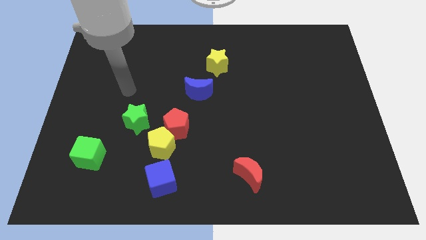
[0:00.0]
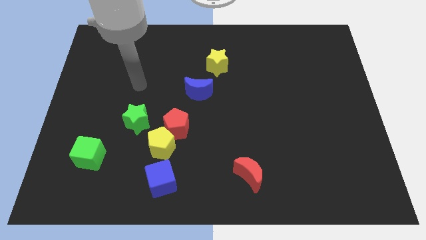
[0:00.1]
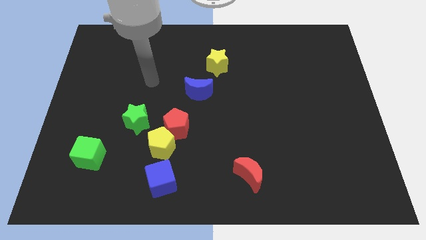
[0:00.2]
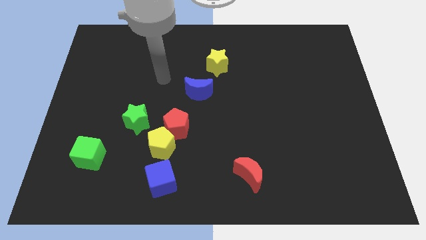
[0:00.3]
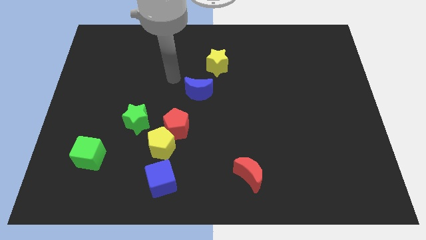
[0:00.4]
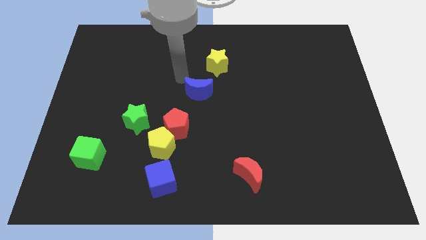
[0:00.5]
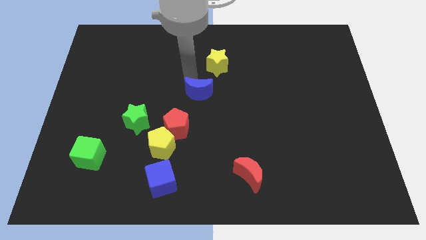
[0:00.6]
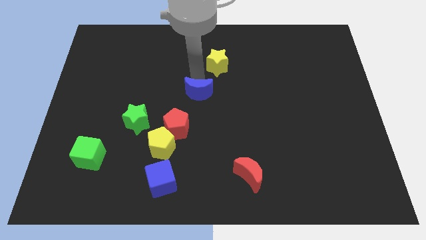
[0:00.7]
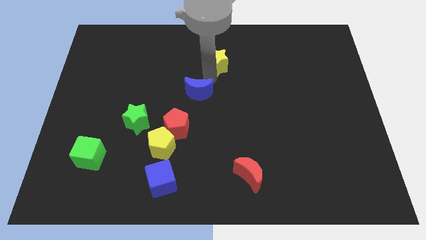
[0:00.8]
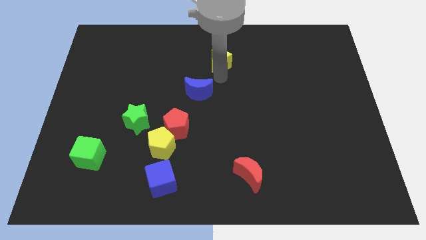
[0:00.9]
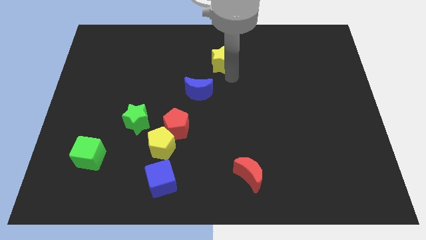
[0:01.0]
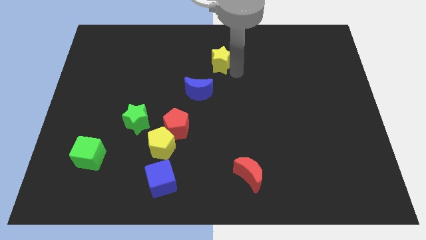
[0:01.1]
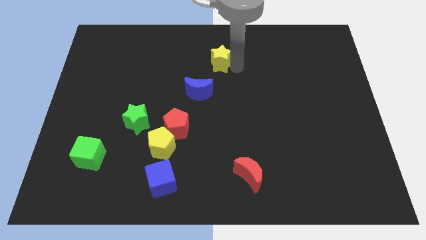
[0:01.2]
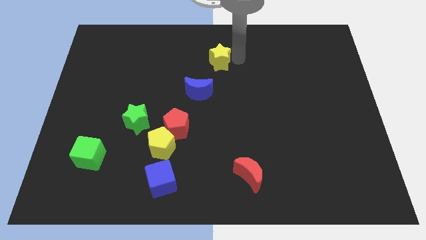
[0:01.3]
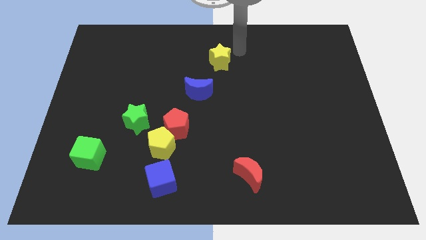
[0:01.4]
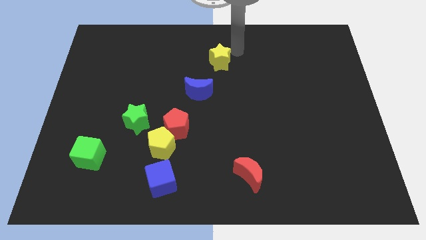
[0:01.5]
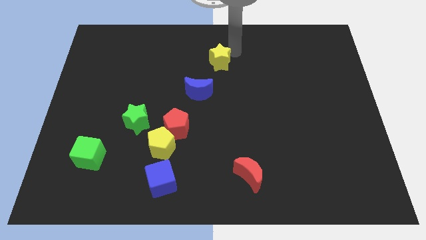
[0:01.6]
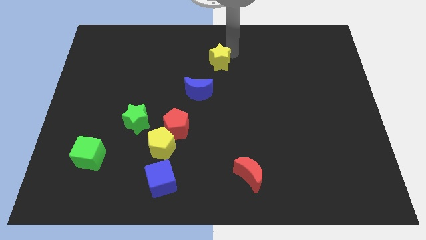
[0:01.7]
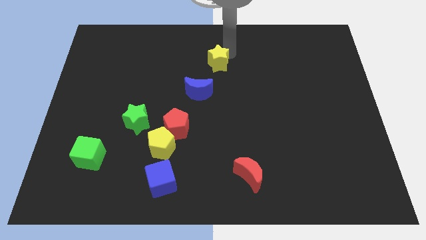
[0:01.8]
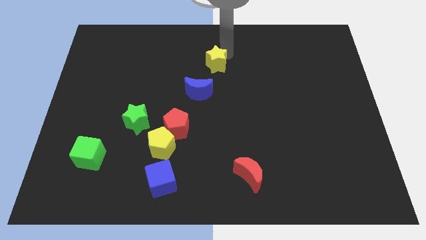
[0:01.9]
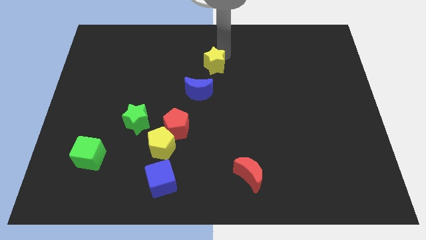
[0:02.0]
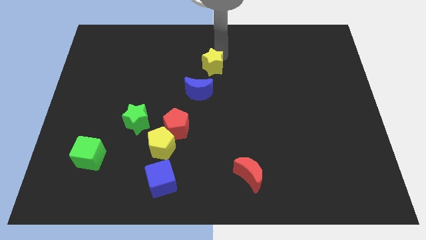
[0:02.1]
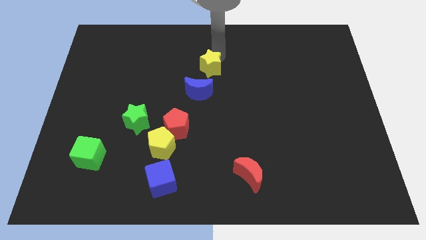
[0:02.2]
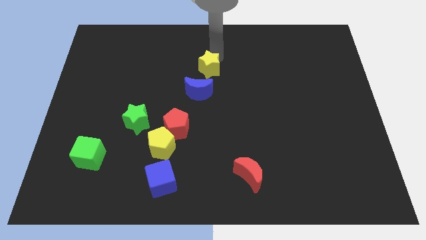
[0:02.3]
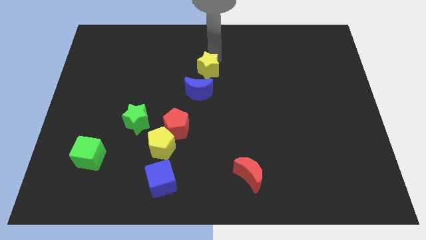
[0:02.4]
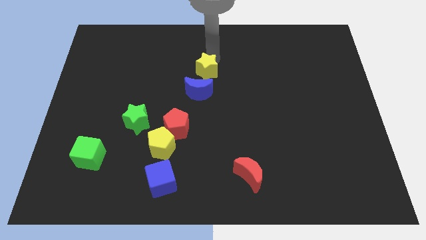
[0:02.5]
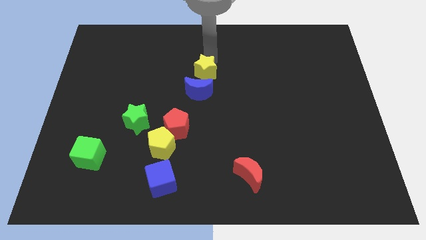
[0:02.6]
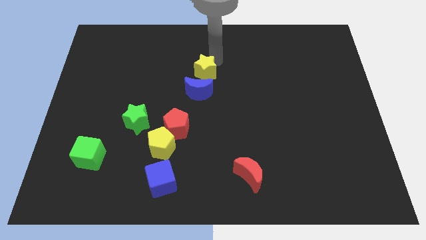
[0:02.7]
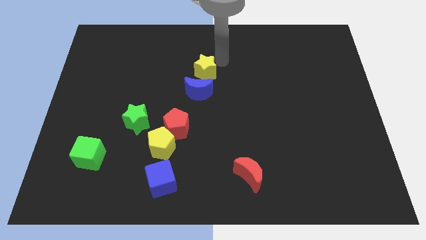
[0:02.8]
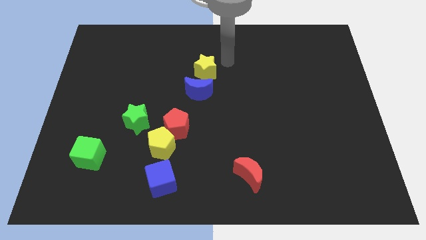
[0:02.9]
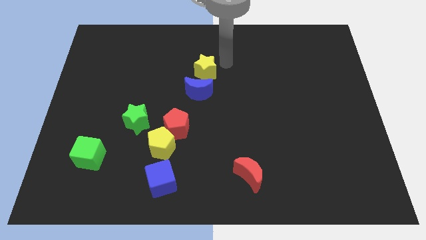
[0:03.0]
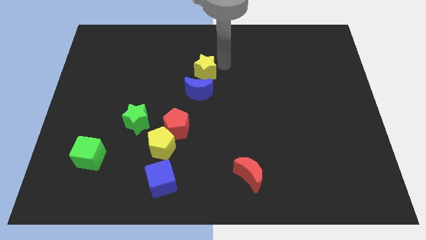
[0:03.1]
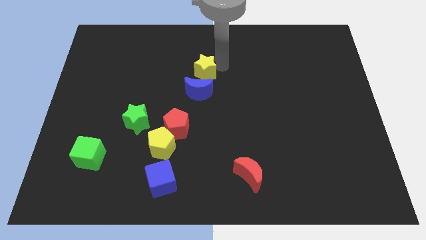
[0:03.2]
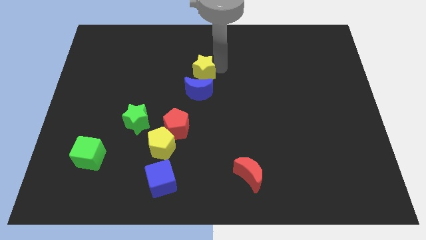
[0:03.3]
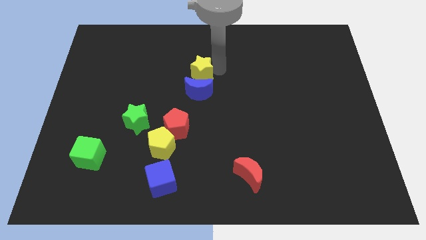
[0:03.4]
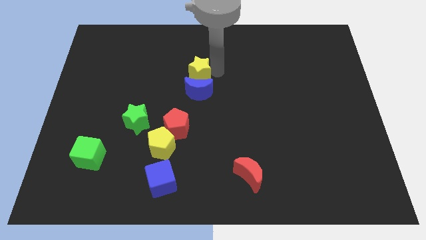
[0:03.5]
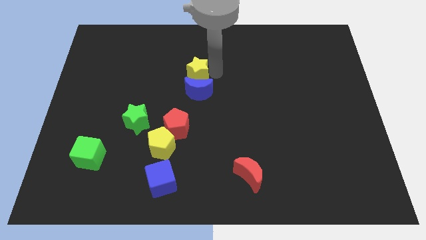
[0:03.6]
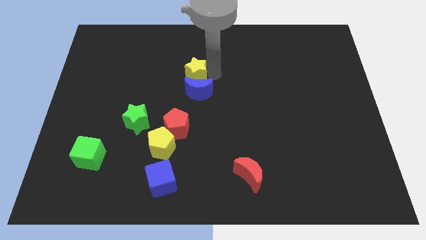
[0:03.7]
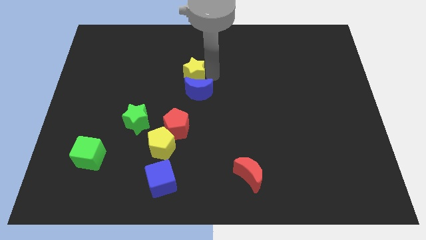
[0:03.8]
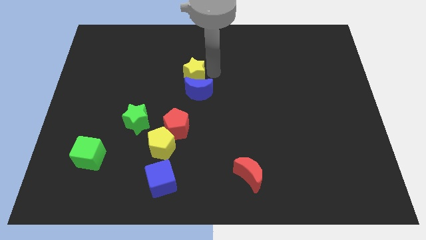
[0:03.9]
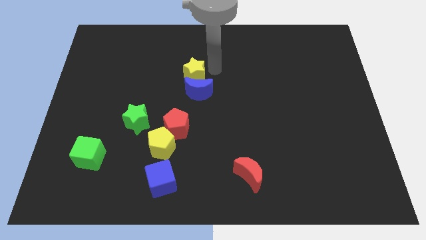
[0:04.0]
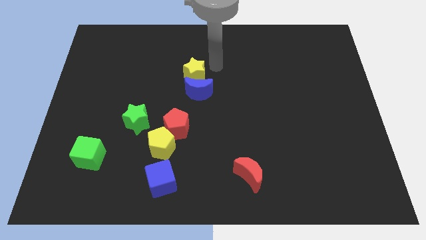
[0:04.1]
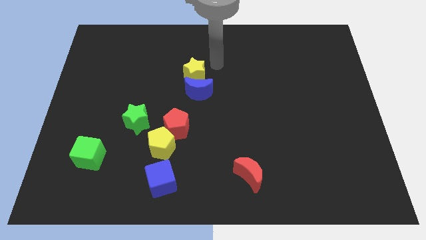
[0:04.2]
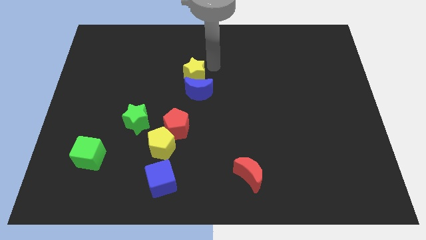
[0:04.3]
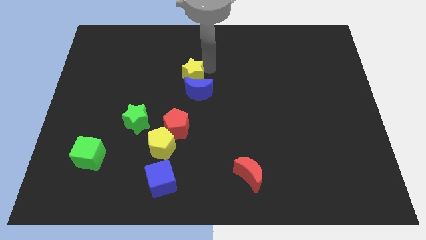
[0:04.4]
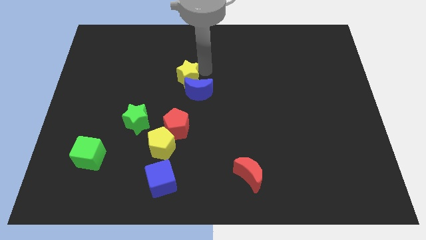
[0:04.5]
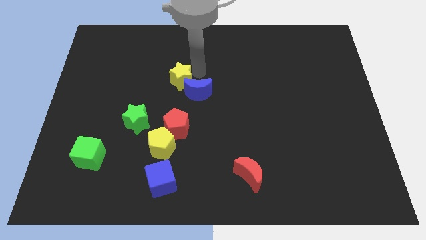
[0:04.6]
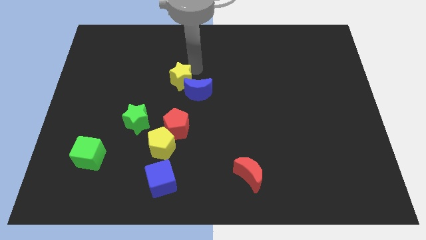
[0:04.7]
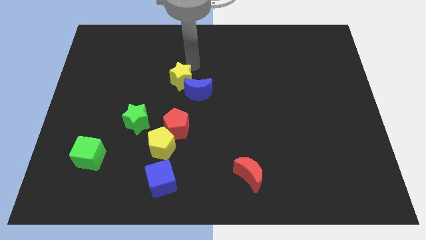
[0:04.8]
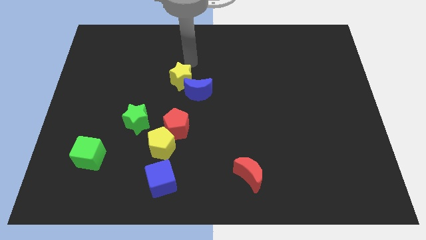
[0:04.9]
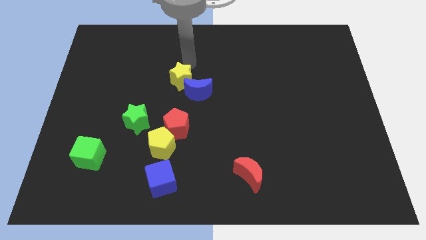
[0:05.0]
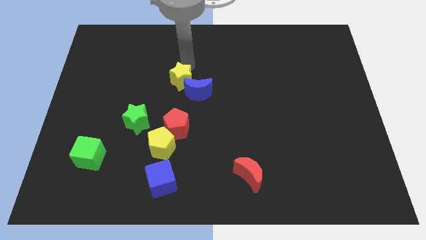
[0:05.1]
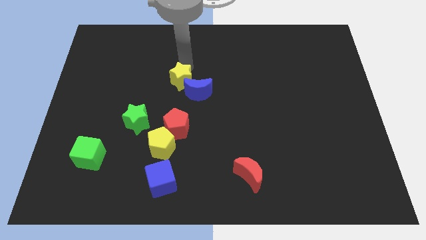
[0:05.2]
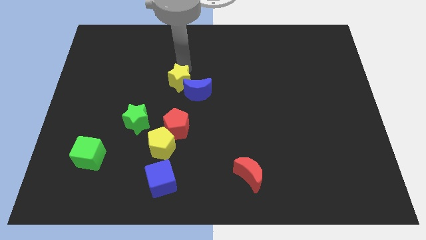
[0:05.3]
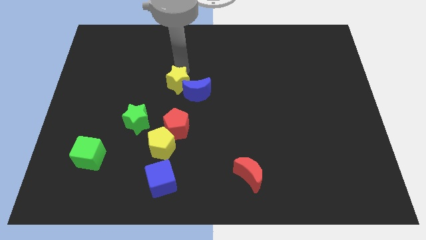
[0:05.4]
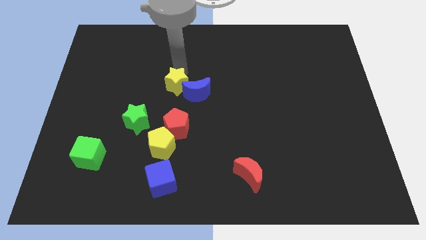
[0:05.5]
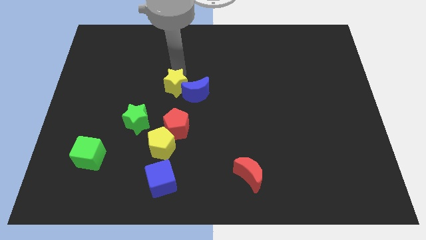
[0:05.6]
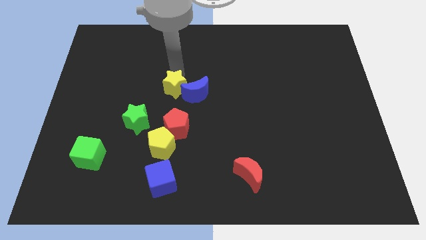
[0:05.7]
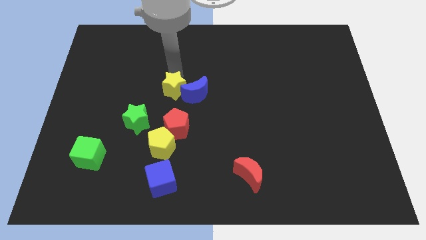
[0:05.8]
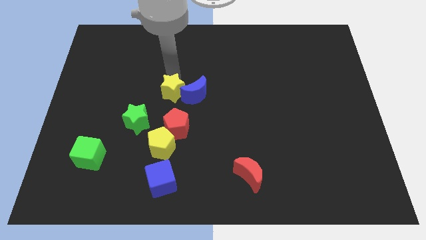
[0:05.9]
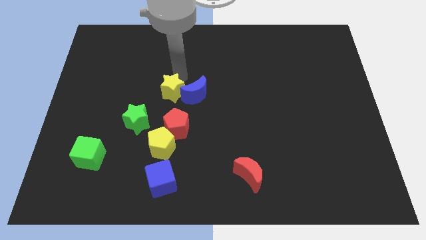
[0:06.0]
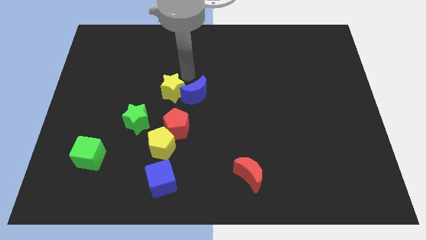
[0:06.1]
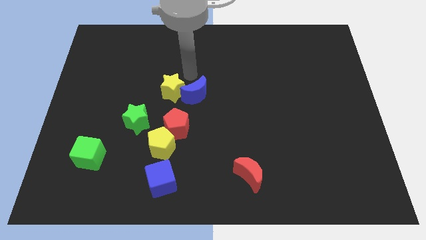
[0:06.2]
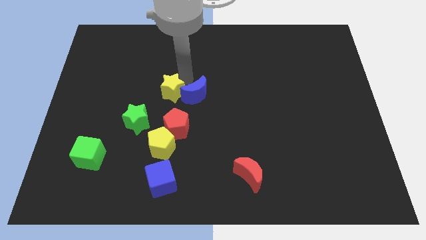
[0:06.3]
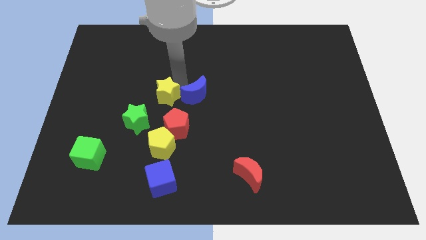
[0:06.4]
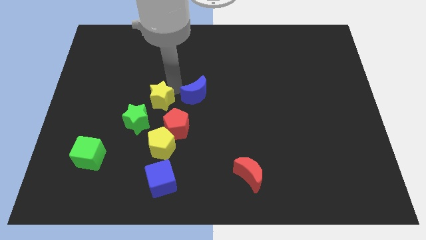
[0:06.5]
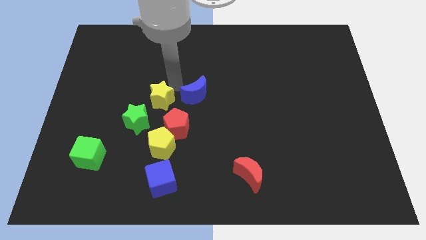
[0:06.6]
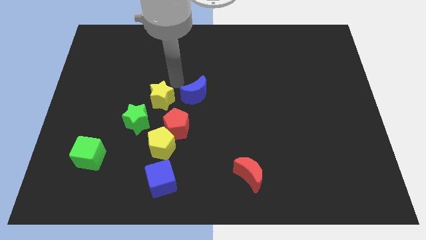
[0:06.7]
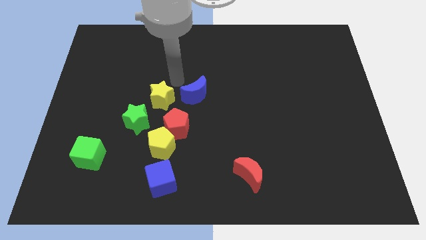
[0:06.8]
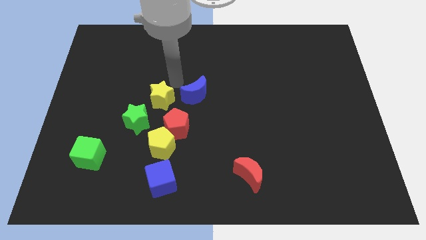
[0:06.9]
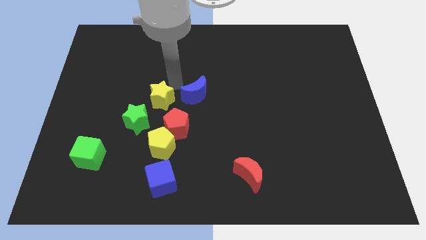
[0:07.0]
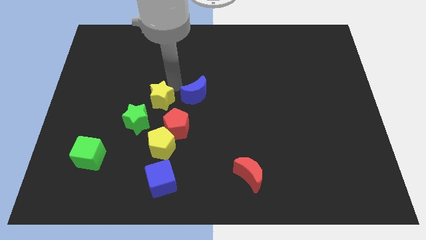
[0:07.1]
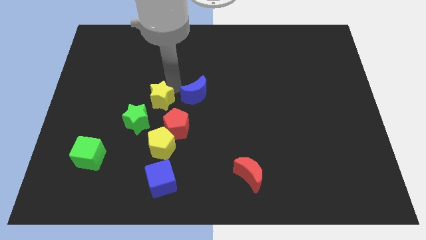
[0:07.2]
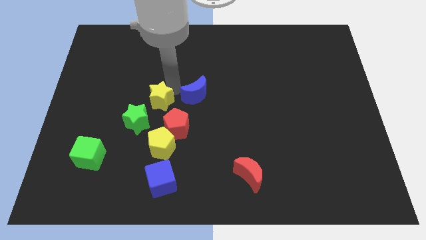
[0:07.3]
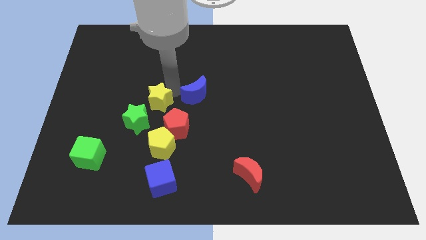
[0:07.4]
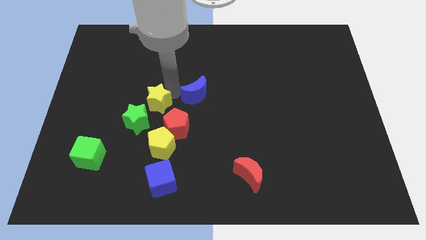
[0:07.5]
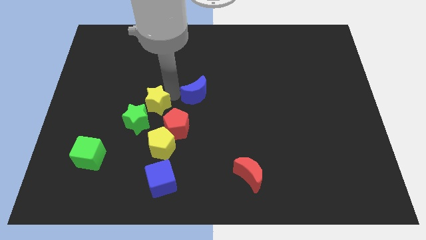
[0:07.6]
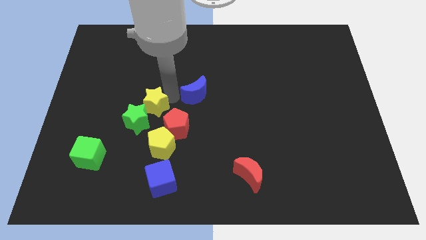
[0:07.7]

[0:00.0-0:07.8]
push the yellow star close to the green star

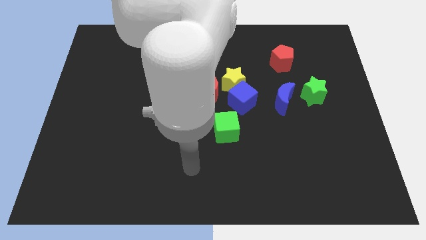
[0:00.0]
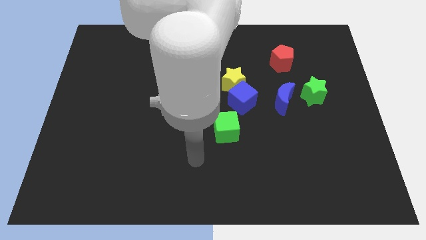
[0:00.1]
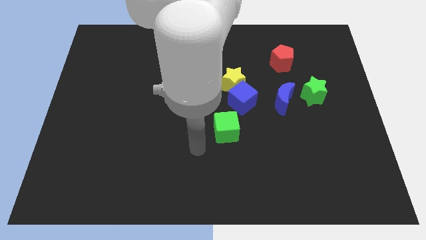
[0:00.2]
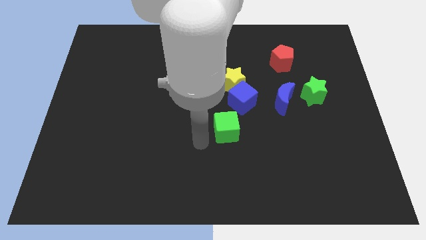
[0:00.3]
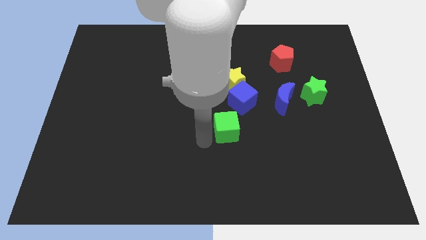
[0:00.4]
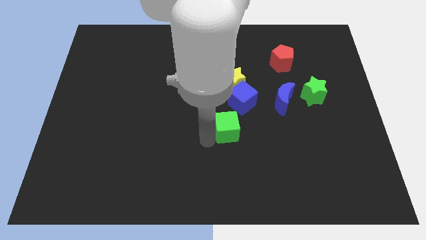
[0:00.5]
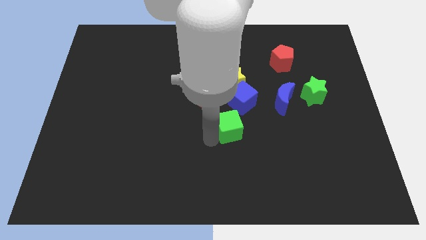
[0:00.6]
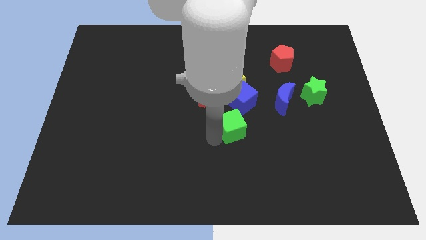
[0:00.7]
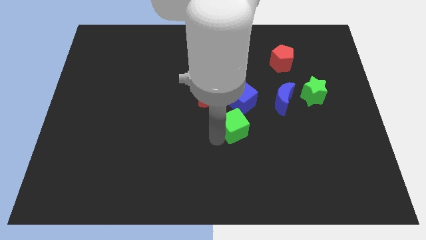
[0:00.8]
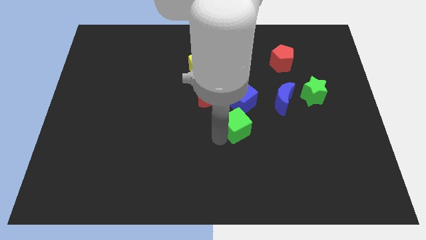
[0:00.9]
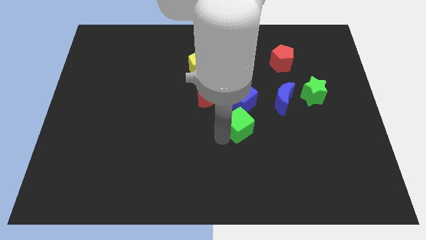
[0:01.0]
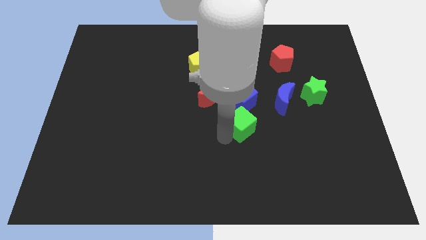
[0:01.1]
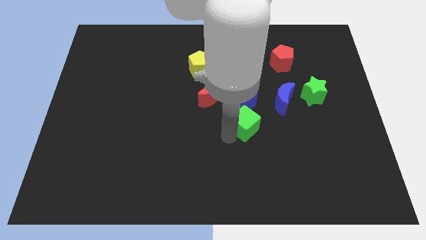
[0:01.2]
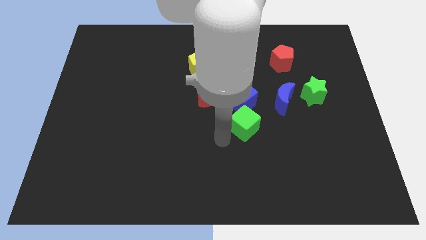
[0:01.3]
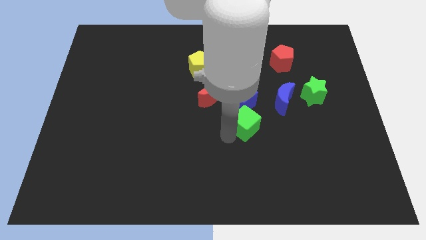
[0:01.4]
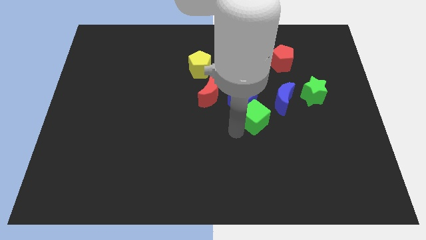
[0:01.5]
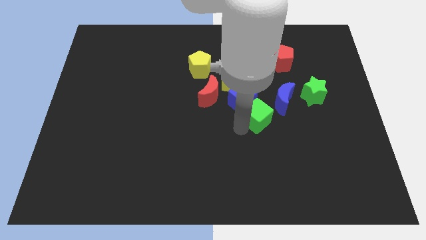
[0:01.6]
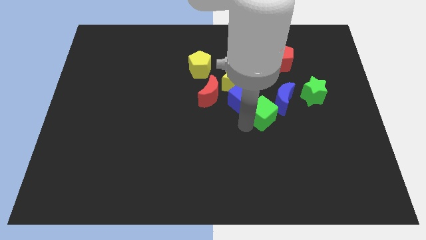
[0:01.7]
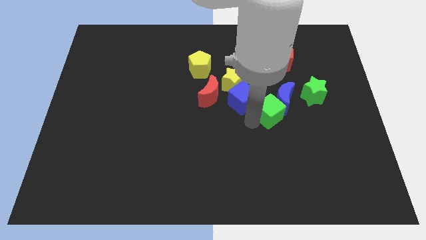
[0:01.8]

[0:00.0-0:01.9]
slide the green cube close to the blue moon
